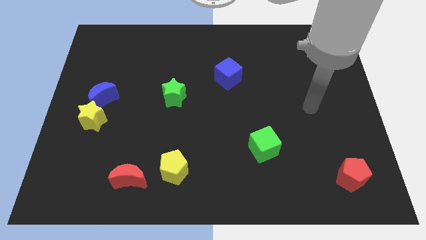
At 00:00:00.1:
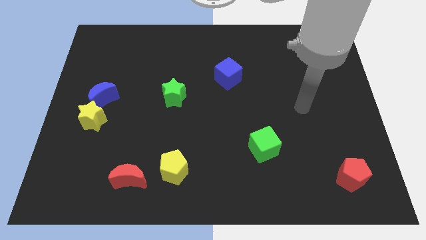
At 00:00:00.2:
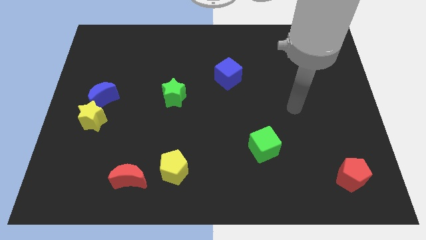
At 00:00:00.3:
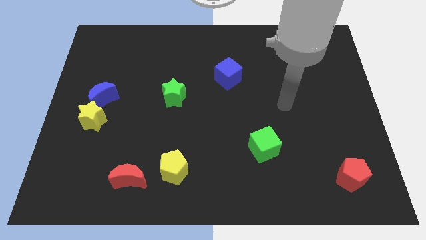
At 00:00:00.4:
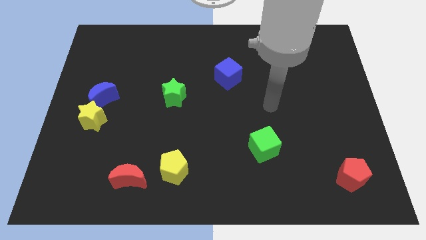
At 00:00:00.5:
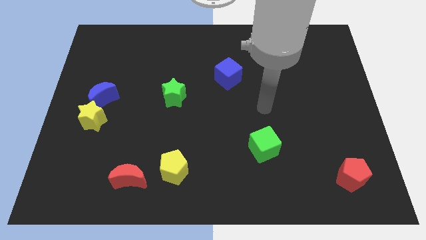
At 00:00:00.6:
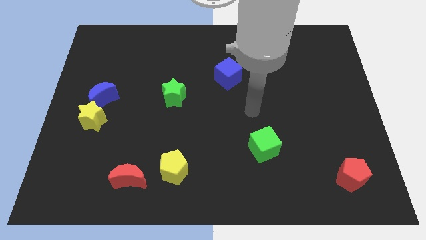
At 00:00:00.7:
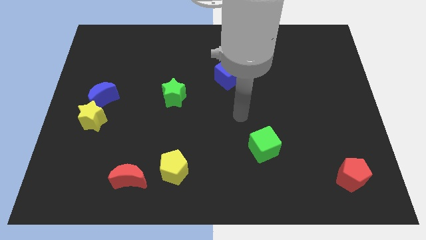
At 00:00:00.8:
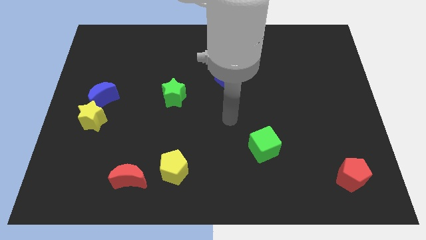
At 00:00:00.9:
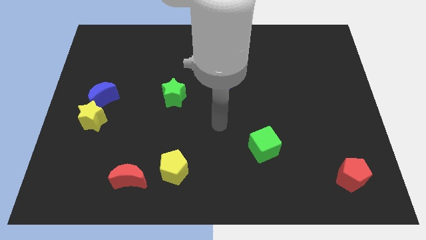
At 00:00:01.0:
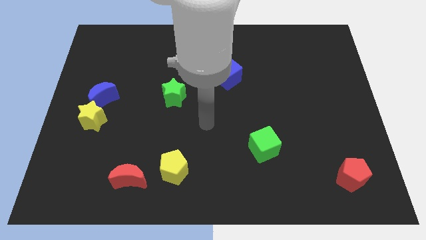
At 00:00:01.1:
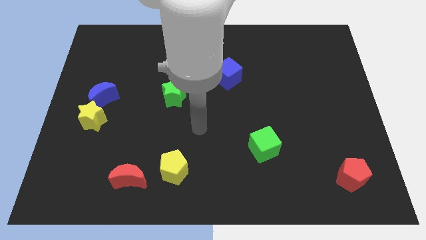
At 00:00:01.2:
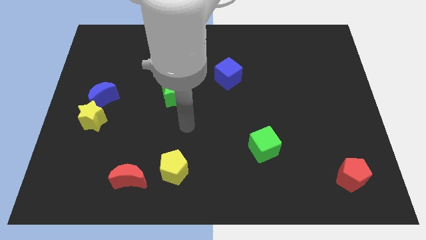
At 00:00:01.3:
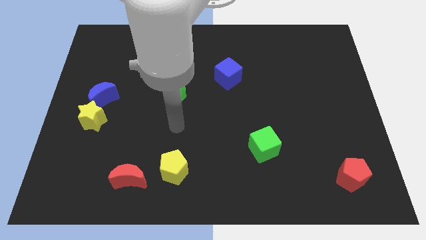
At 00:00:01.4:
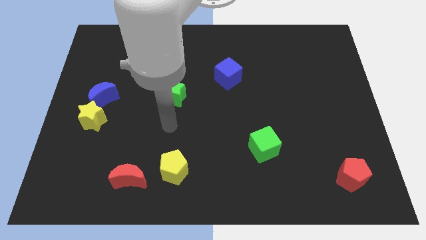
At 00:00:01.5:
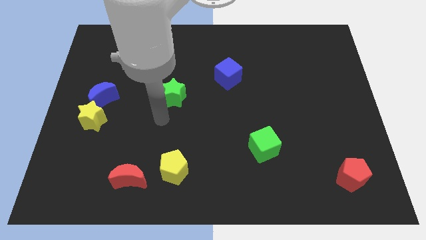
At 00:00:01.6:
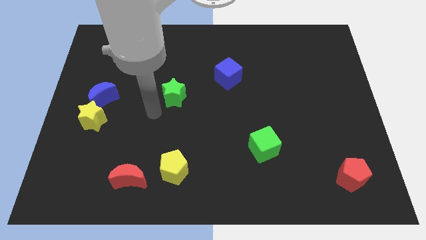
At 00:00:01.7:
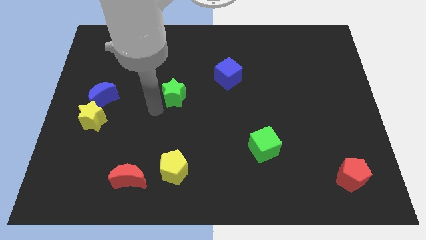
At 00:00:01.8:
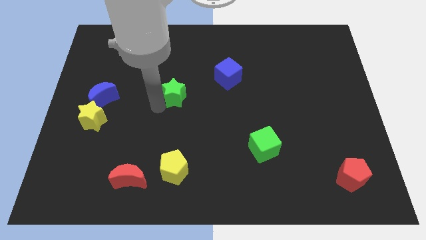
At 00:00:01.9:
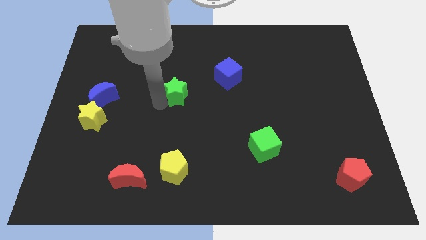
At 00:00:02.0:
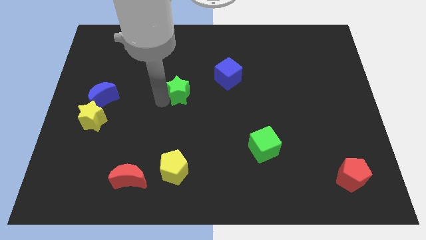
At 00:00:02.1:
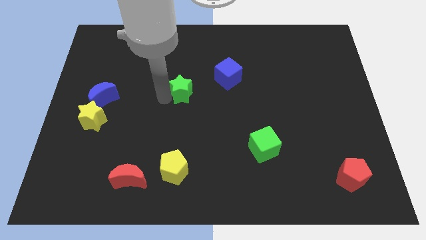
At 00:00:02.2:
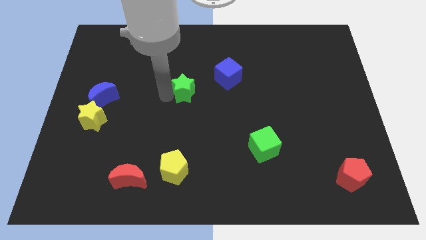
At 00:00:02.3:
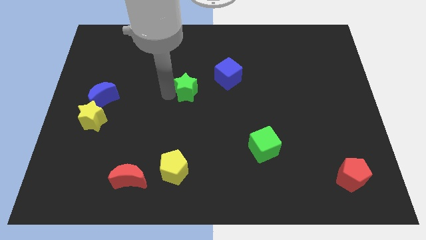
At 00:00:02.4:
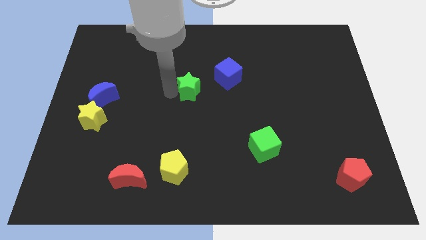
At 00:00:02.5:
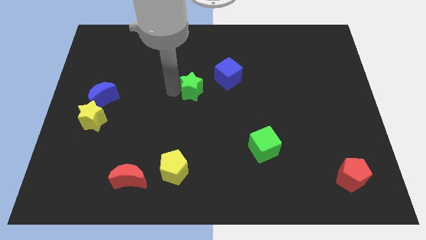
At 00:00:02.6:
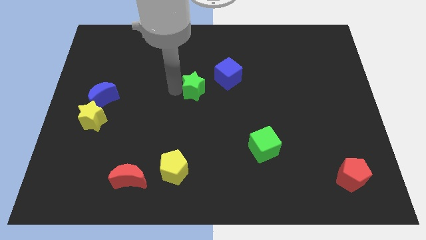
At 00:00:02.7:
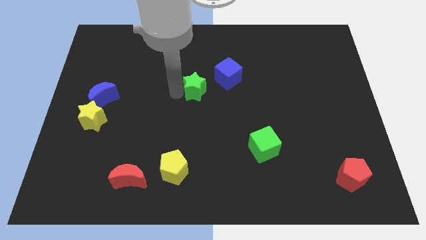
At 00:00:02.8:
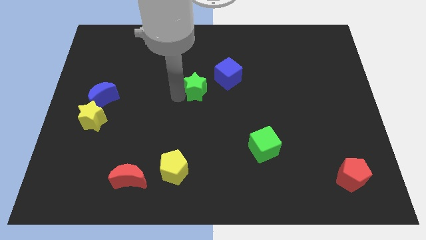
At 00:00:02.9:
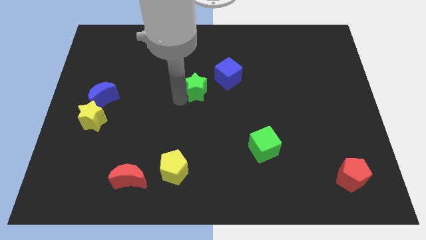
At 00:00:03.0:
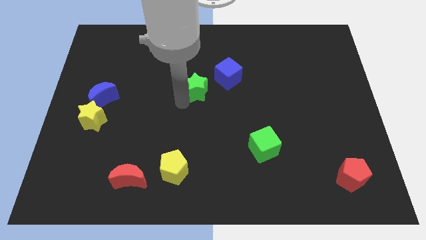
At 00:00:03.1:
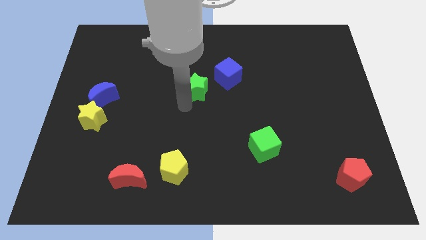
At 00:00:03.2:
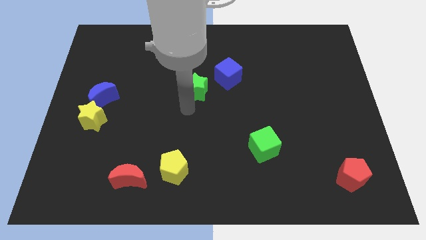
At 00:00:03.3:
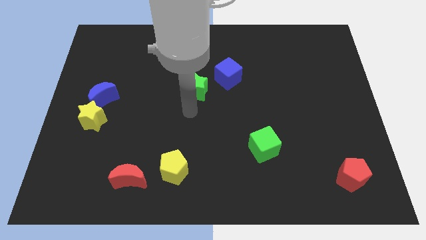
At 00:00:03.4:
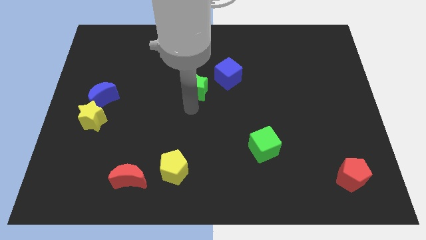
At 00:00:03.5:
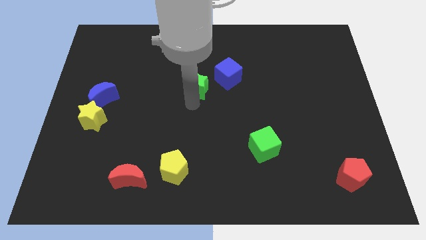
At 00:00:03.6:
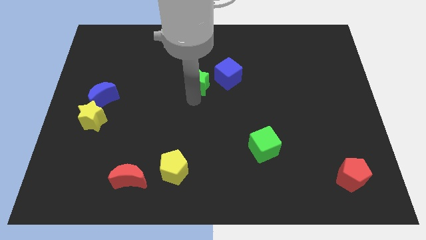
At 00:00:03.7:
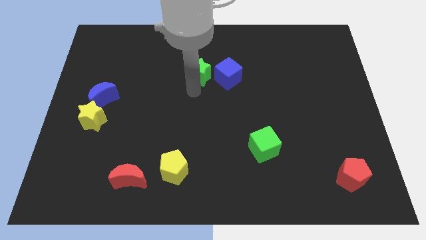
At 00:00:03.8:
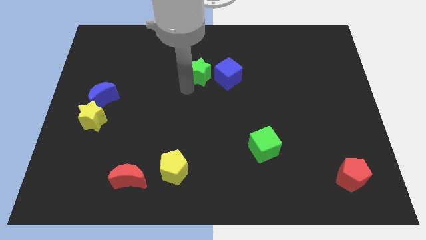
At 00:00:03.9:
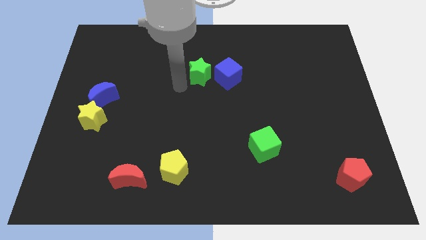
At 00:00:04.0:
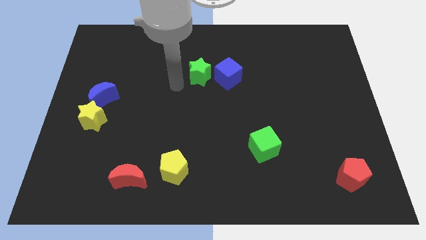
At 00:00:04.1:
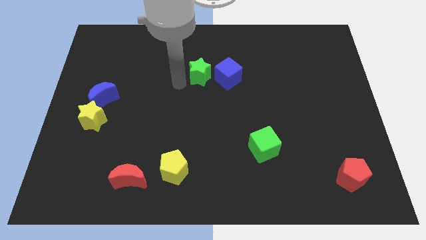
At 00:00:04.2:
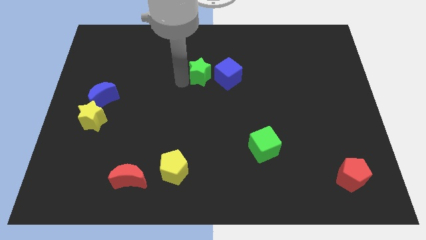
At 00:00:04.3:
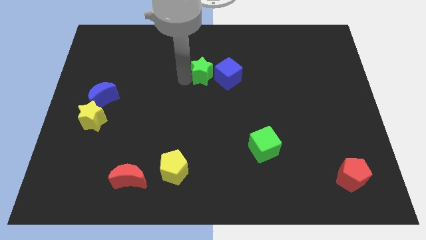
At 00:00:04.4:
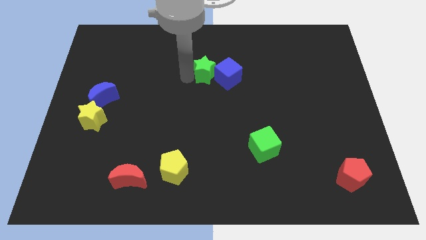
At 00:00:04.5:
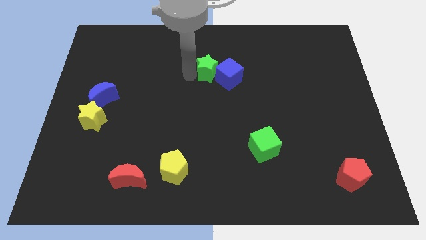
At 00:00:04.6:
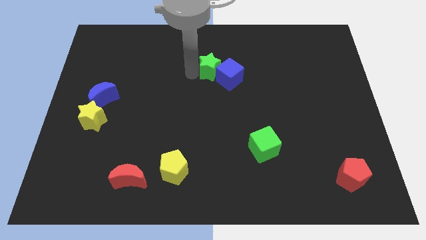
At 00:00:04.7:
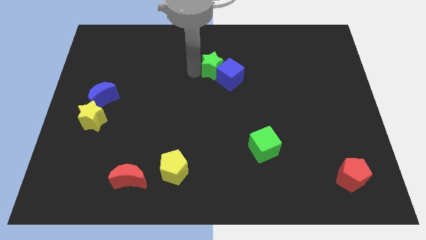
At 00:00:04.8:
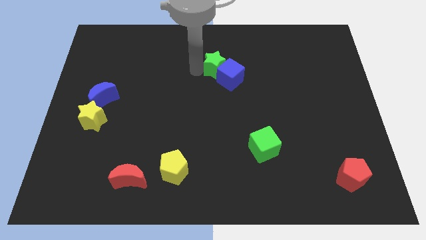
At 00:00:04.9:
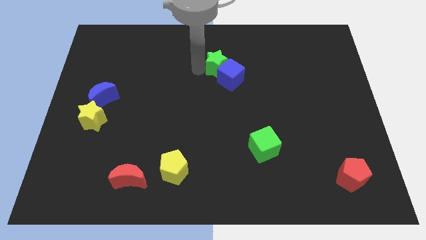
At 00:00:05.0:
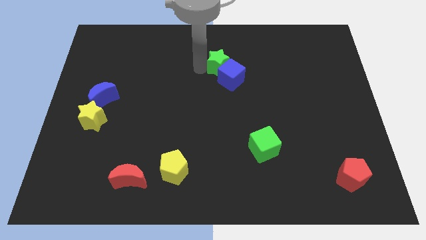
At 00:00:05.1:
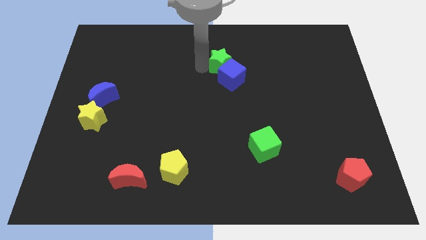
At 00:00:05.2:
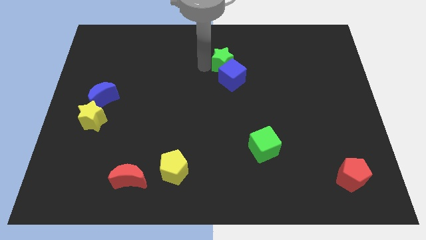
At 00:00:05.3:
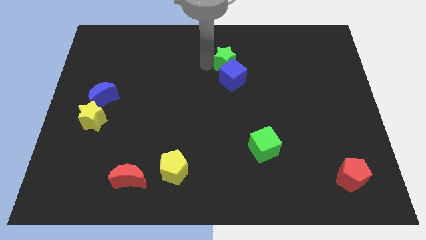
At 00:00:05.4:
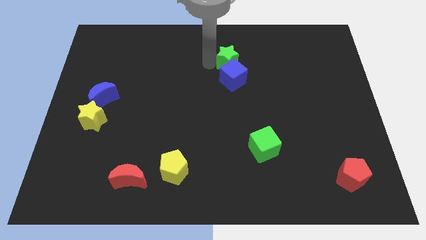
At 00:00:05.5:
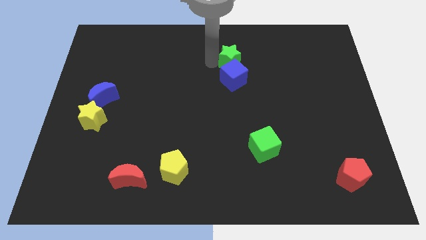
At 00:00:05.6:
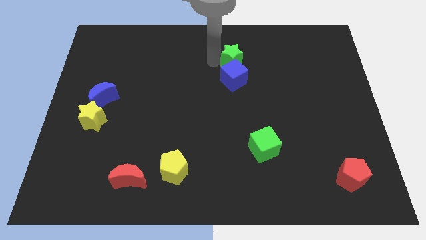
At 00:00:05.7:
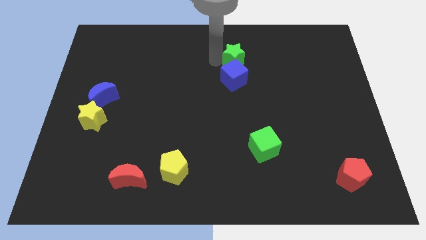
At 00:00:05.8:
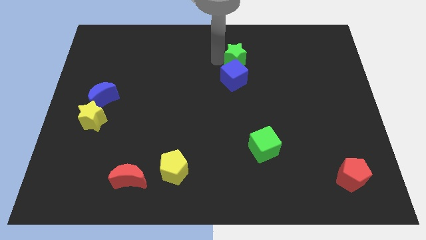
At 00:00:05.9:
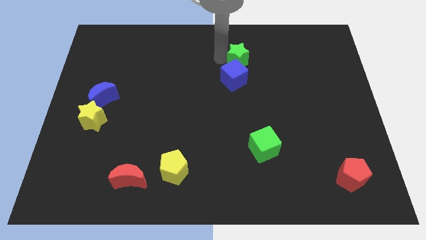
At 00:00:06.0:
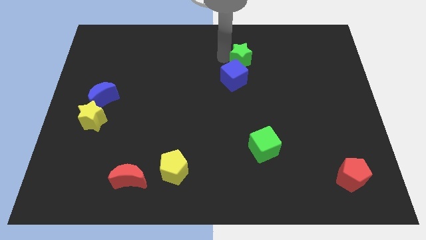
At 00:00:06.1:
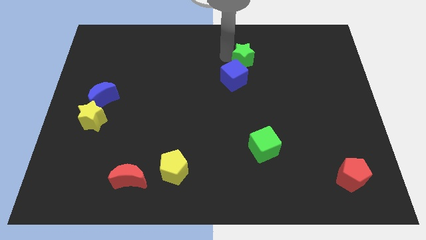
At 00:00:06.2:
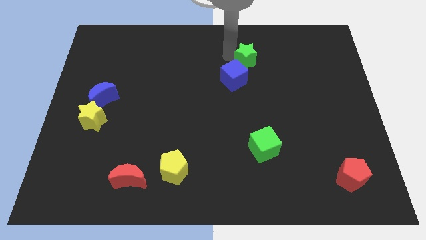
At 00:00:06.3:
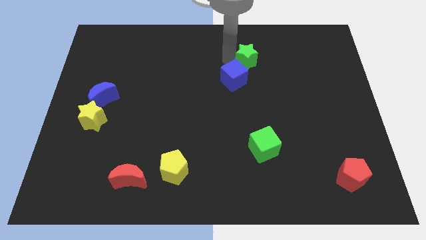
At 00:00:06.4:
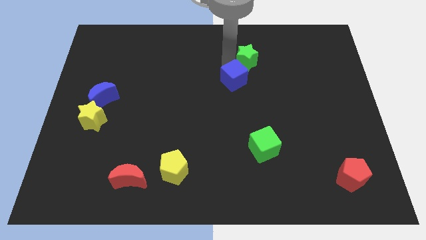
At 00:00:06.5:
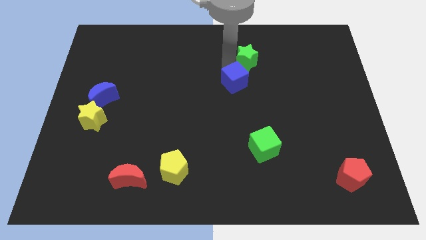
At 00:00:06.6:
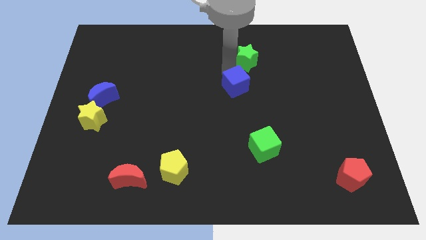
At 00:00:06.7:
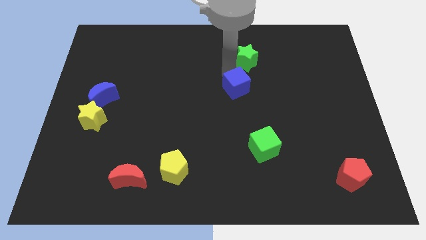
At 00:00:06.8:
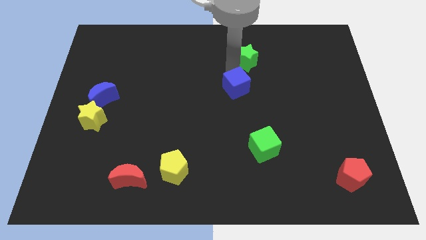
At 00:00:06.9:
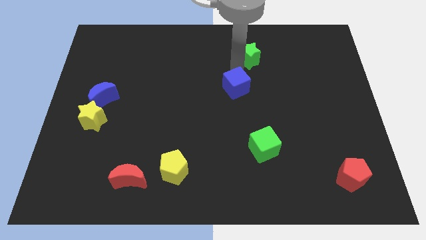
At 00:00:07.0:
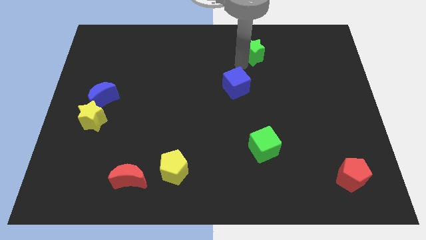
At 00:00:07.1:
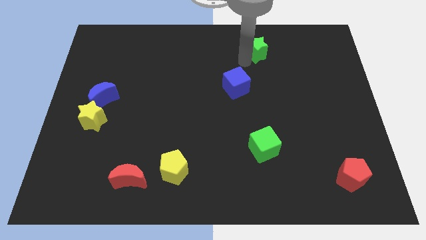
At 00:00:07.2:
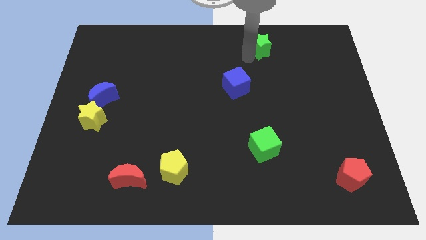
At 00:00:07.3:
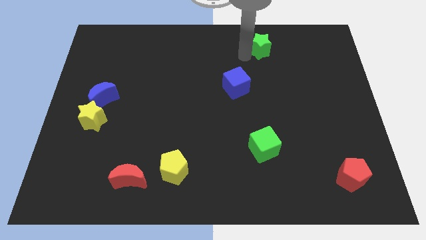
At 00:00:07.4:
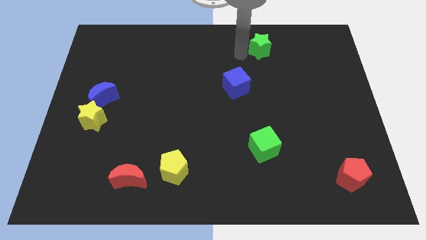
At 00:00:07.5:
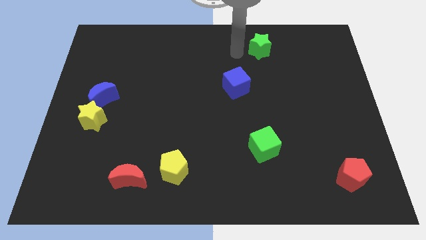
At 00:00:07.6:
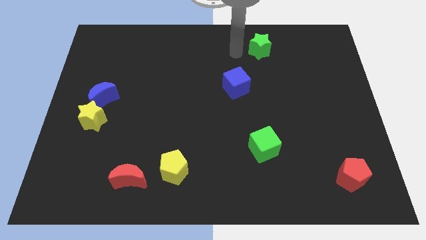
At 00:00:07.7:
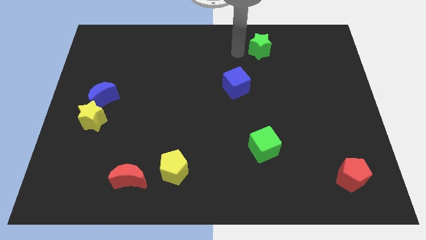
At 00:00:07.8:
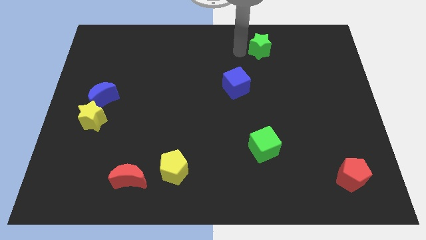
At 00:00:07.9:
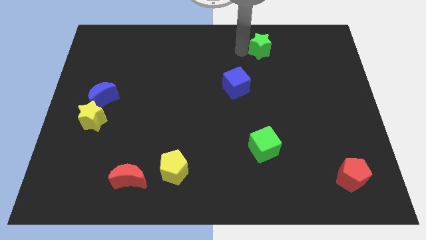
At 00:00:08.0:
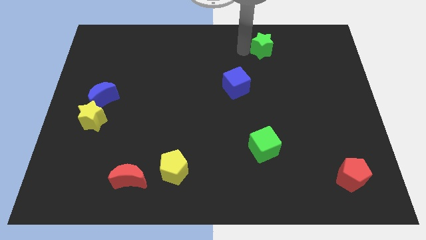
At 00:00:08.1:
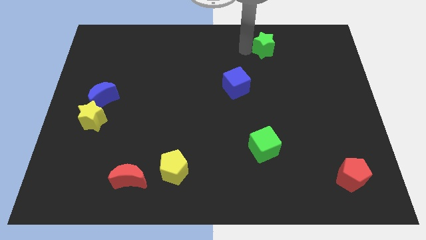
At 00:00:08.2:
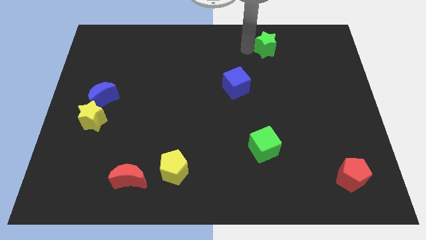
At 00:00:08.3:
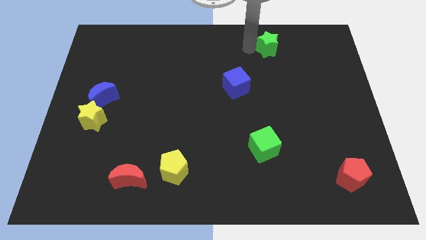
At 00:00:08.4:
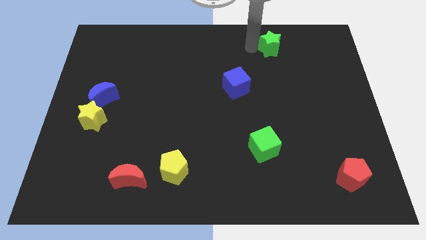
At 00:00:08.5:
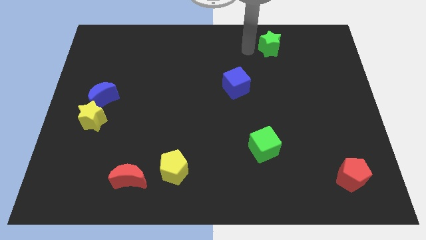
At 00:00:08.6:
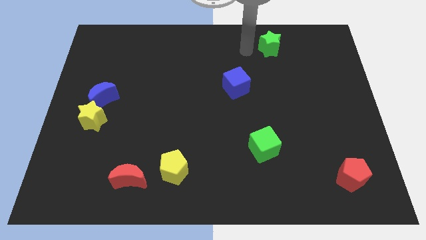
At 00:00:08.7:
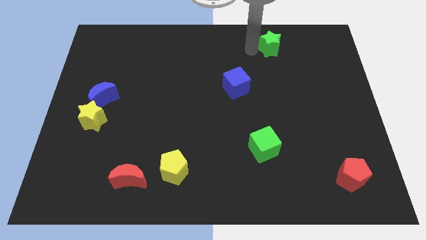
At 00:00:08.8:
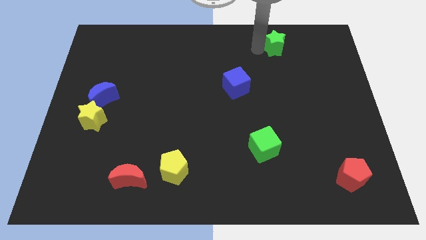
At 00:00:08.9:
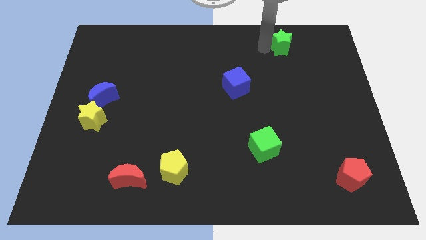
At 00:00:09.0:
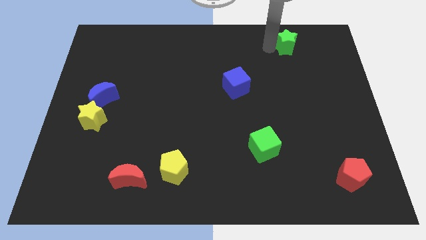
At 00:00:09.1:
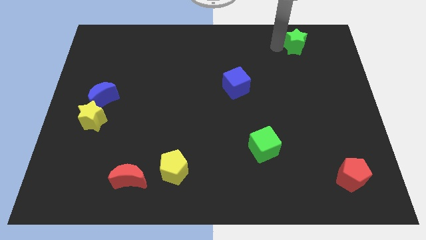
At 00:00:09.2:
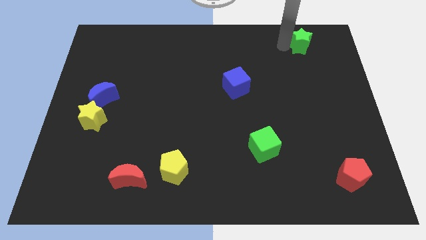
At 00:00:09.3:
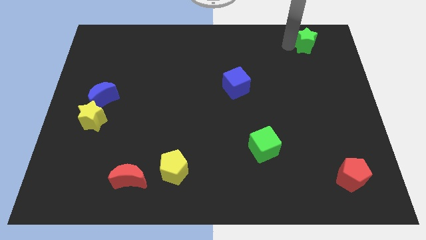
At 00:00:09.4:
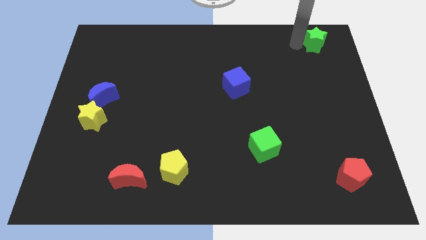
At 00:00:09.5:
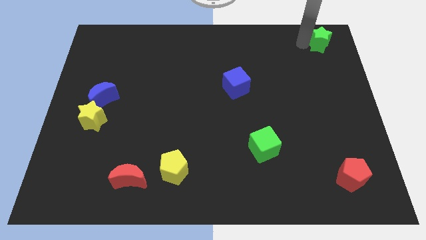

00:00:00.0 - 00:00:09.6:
slide the green star to the top right
